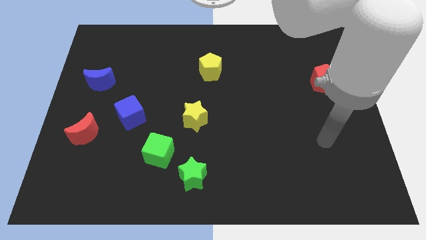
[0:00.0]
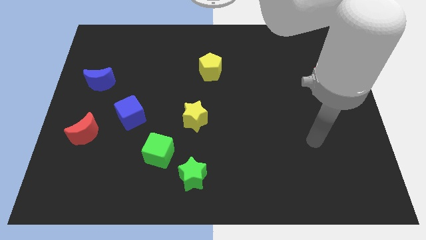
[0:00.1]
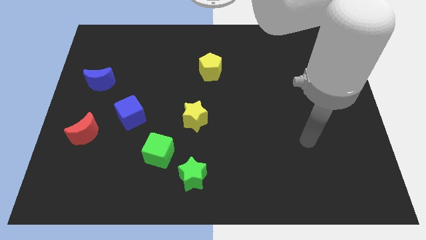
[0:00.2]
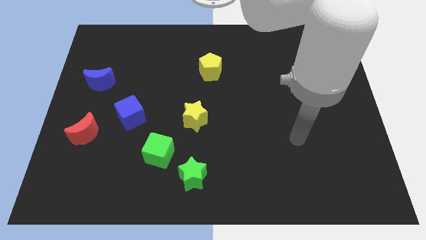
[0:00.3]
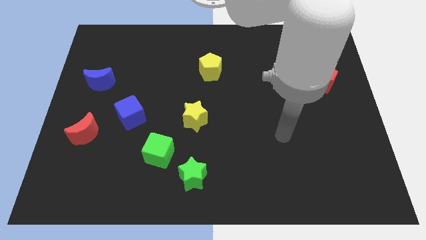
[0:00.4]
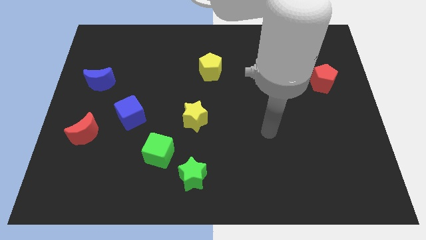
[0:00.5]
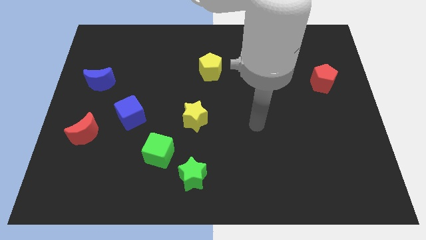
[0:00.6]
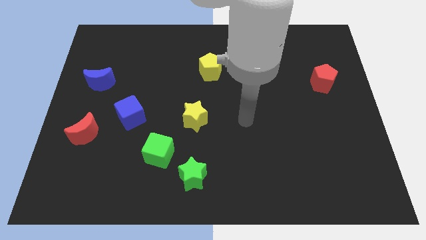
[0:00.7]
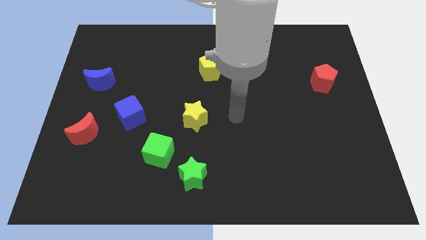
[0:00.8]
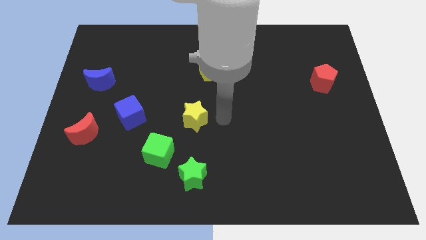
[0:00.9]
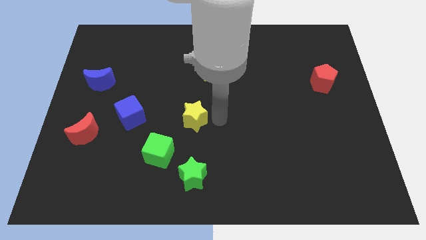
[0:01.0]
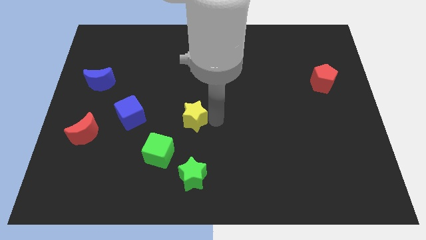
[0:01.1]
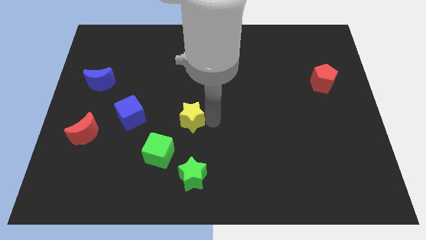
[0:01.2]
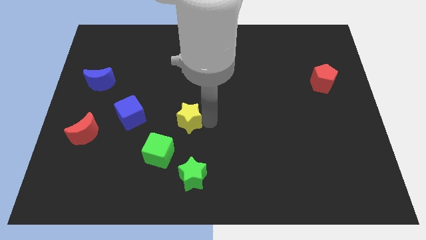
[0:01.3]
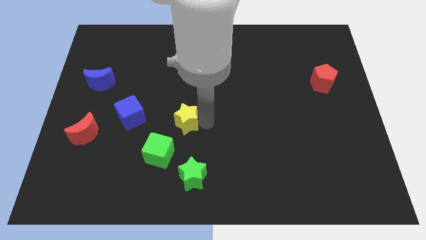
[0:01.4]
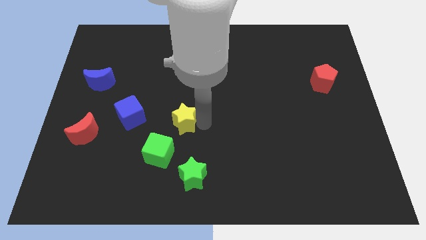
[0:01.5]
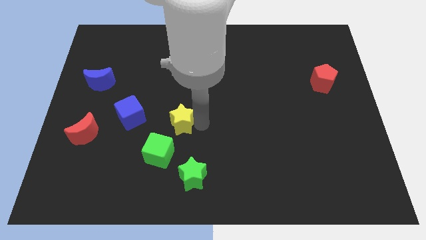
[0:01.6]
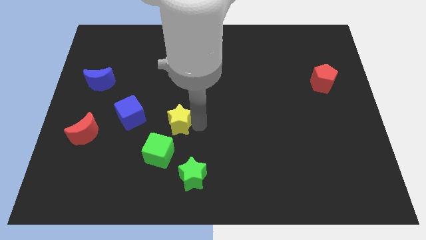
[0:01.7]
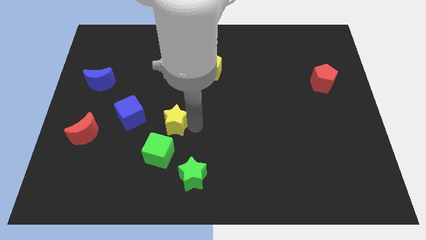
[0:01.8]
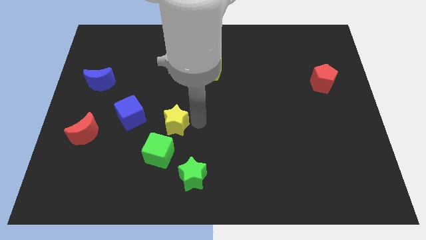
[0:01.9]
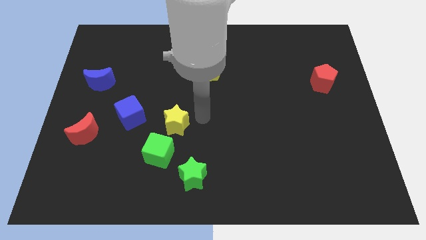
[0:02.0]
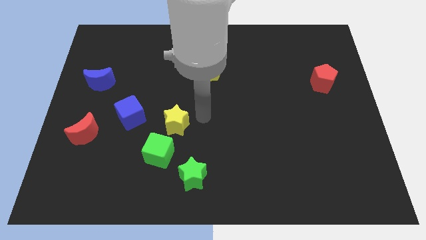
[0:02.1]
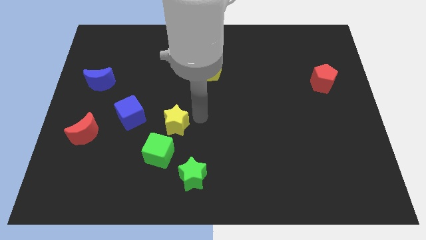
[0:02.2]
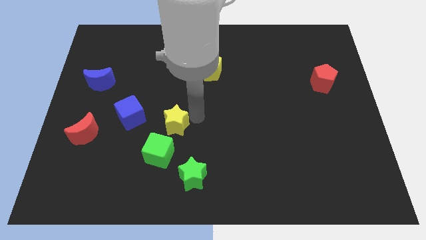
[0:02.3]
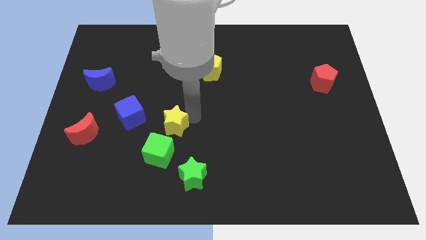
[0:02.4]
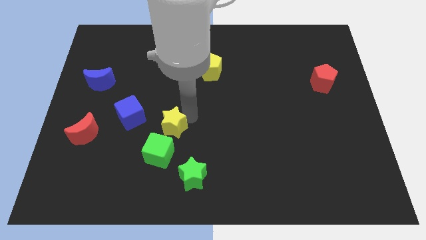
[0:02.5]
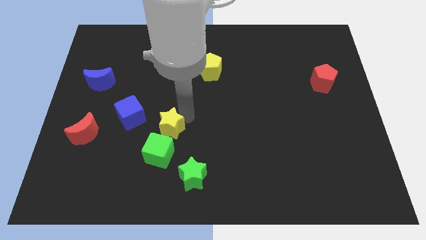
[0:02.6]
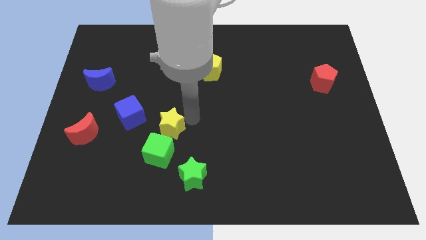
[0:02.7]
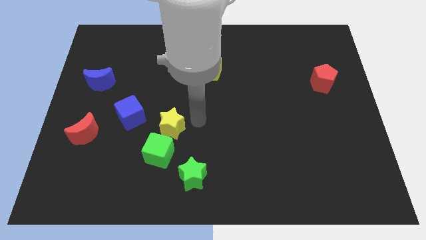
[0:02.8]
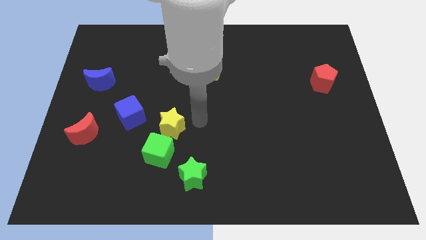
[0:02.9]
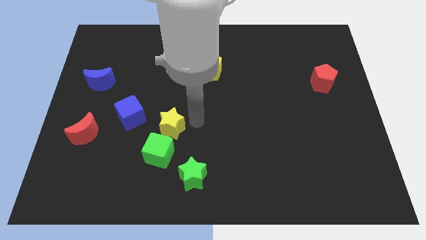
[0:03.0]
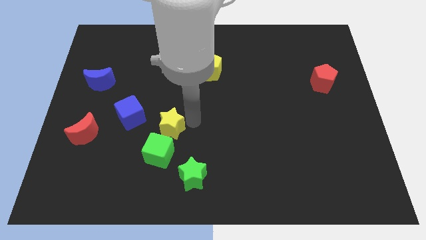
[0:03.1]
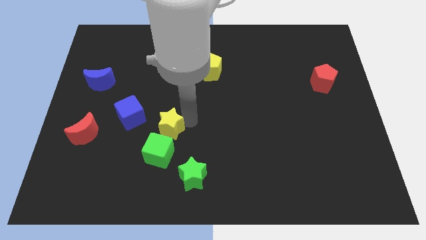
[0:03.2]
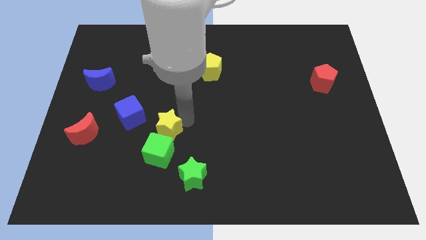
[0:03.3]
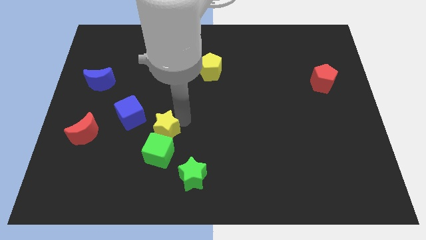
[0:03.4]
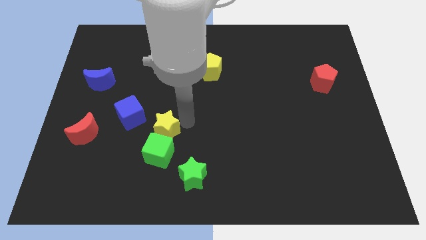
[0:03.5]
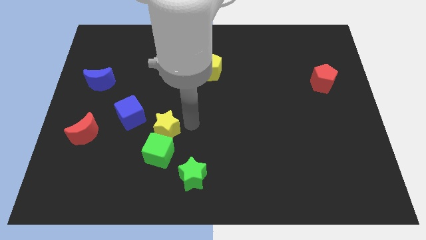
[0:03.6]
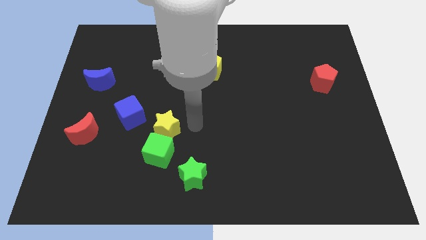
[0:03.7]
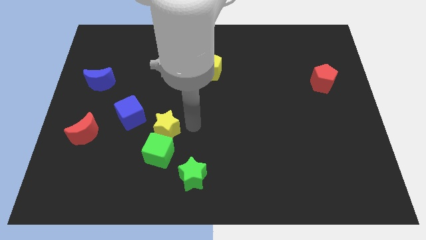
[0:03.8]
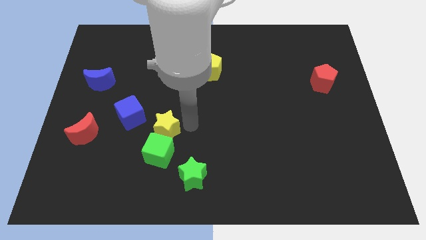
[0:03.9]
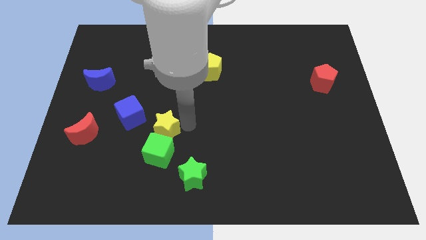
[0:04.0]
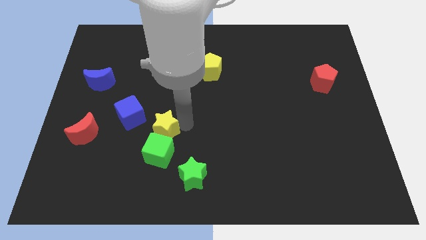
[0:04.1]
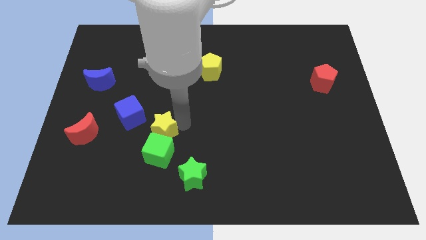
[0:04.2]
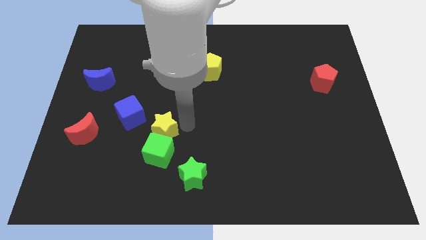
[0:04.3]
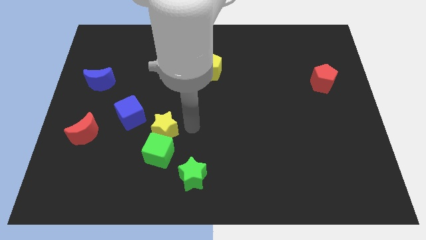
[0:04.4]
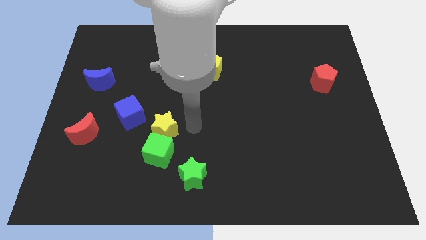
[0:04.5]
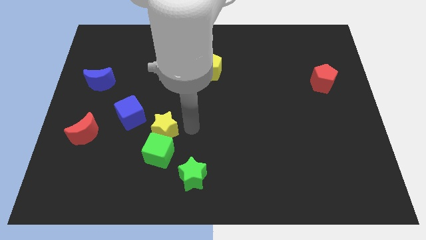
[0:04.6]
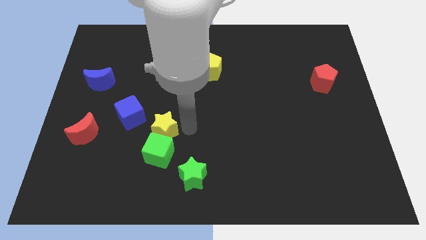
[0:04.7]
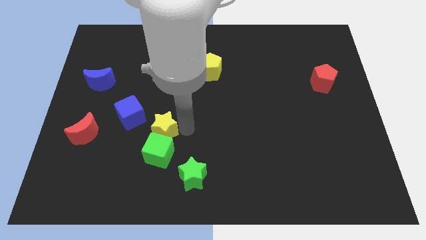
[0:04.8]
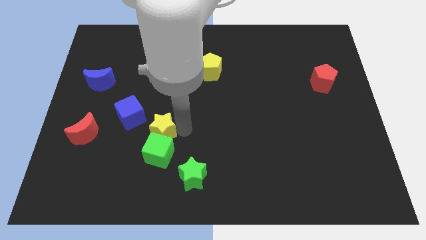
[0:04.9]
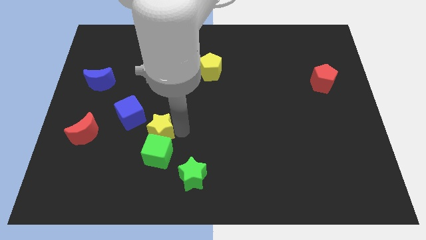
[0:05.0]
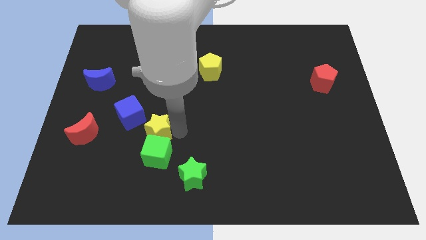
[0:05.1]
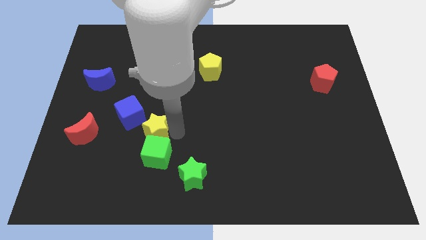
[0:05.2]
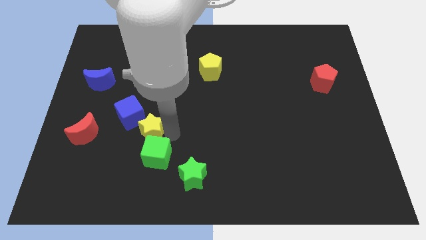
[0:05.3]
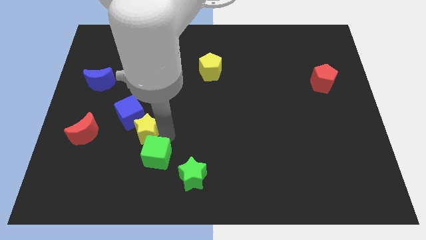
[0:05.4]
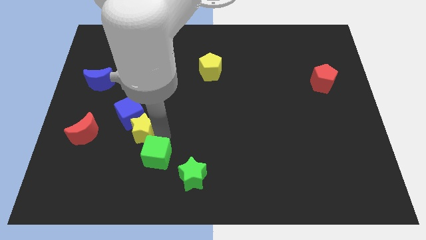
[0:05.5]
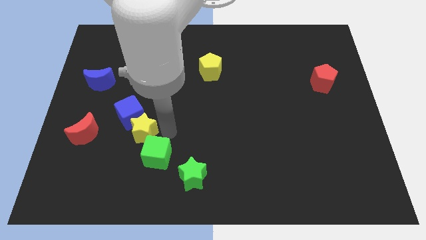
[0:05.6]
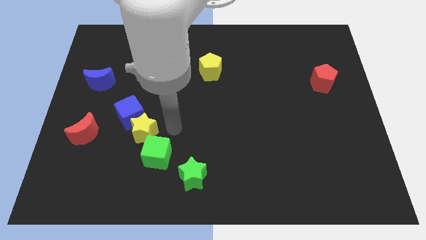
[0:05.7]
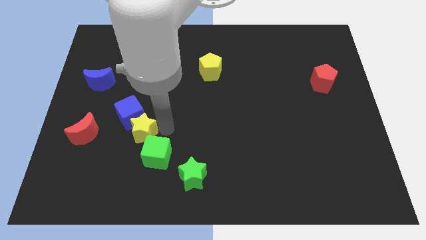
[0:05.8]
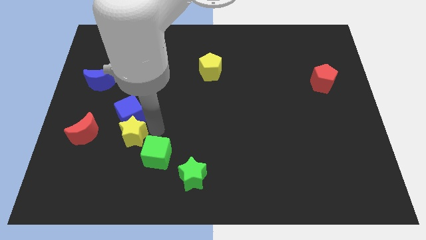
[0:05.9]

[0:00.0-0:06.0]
put the yellow star to the bottom left side of the blue cube

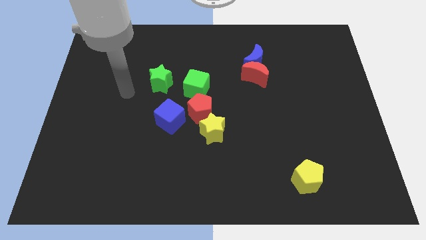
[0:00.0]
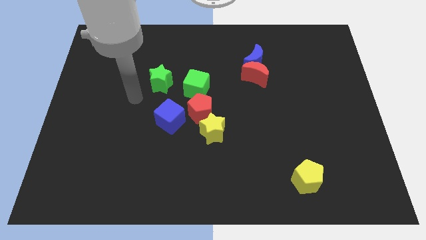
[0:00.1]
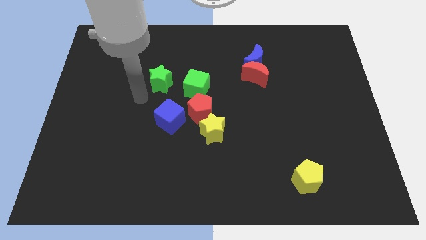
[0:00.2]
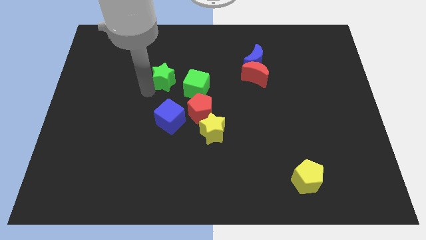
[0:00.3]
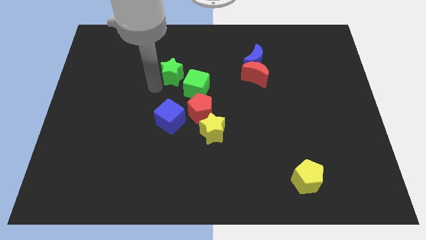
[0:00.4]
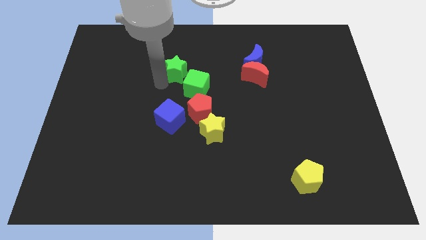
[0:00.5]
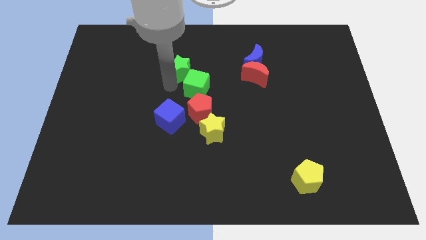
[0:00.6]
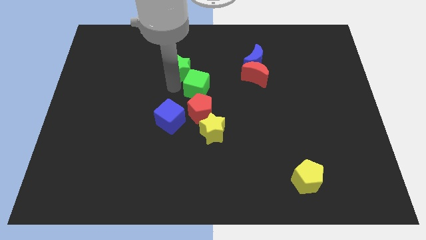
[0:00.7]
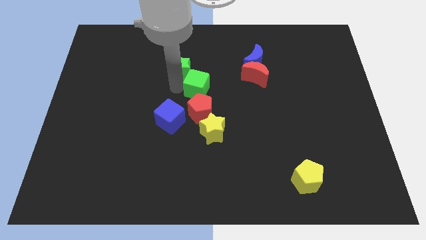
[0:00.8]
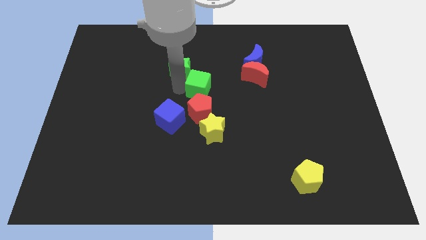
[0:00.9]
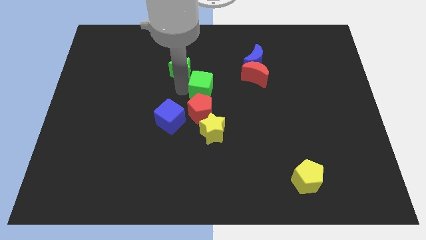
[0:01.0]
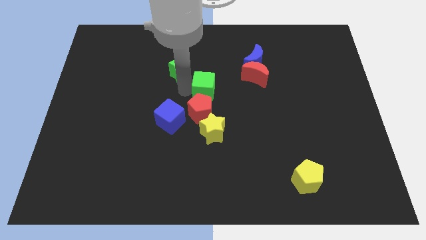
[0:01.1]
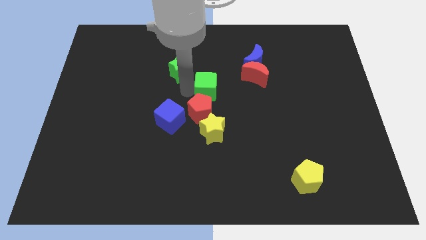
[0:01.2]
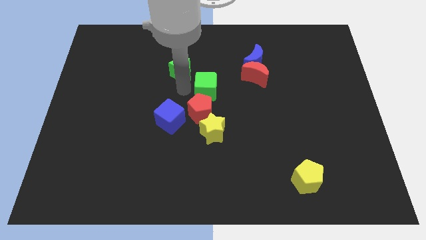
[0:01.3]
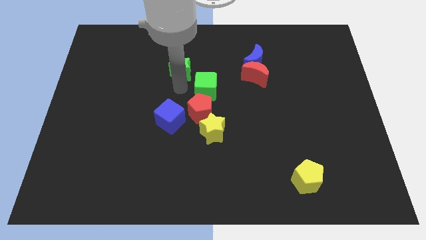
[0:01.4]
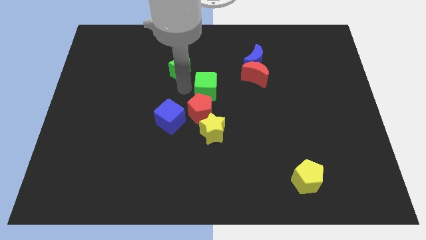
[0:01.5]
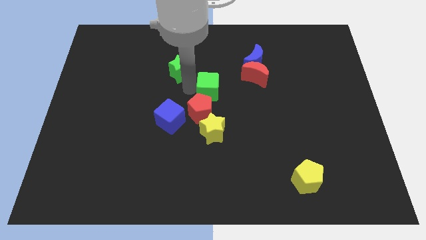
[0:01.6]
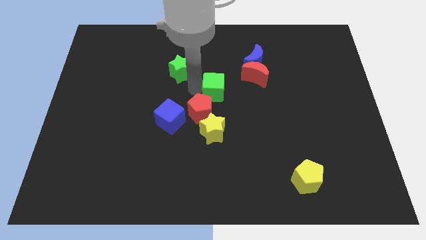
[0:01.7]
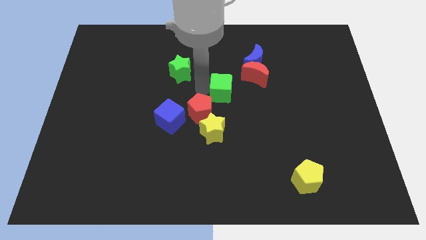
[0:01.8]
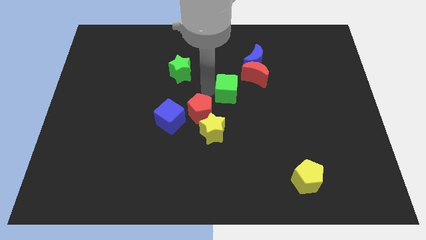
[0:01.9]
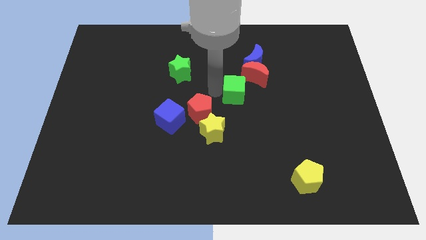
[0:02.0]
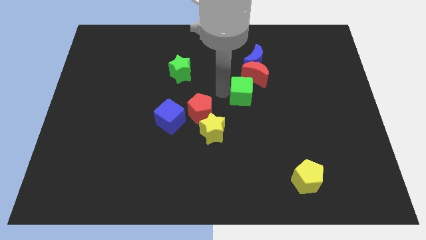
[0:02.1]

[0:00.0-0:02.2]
move the green cube to the bottom of the blue moon
